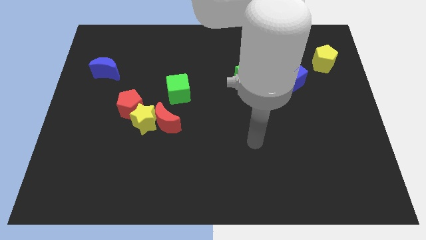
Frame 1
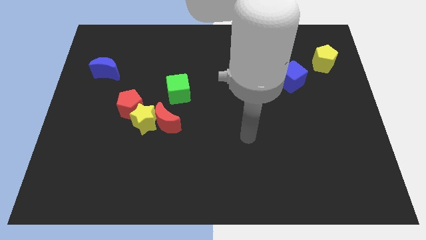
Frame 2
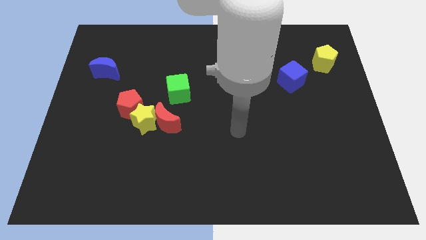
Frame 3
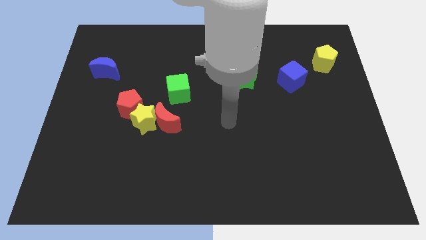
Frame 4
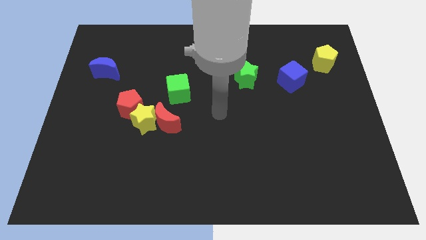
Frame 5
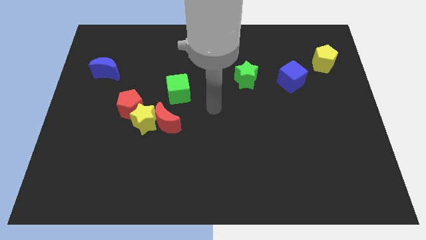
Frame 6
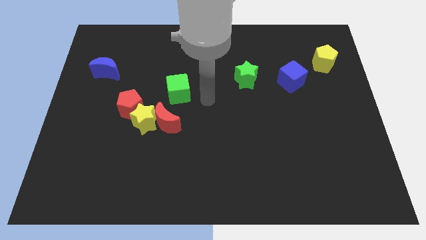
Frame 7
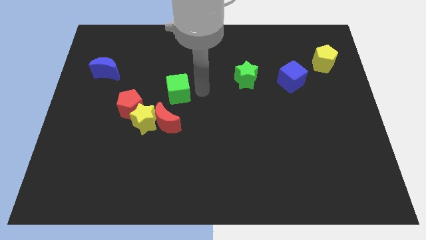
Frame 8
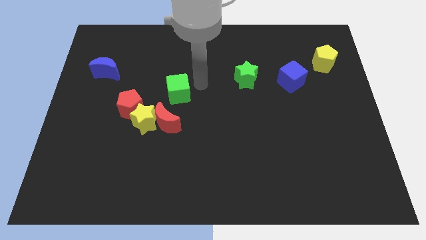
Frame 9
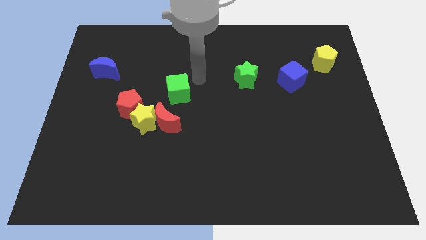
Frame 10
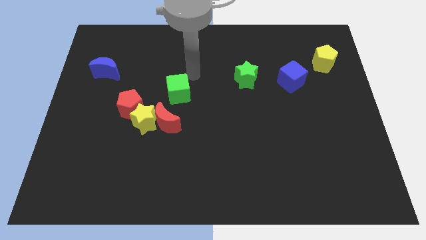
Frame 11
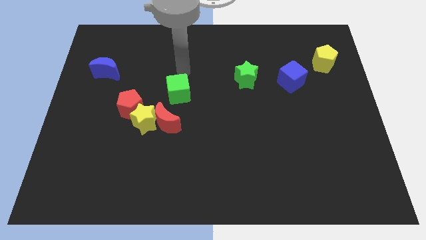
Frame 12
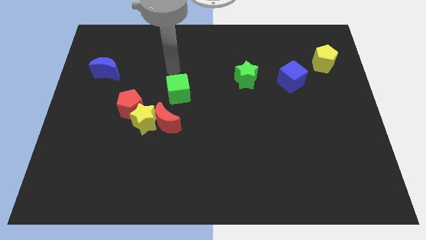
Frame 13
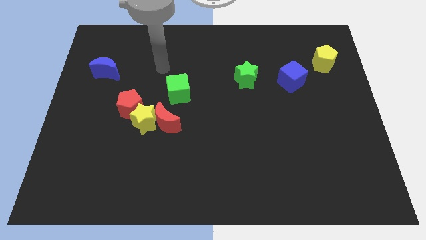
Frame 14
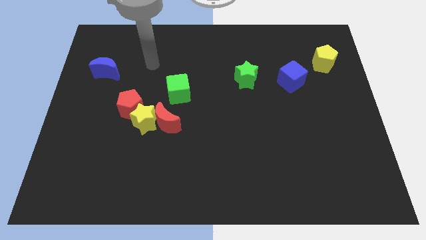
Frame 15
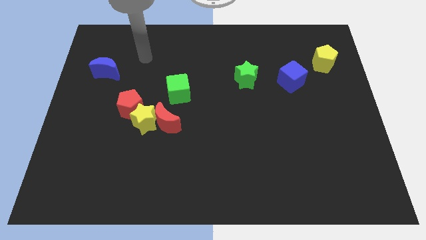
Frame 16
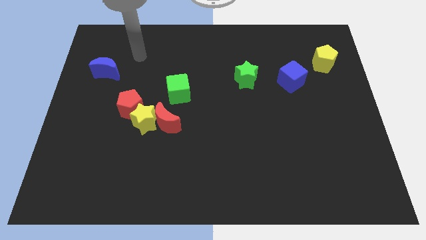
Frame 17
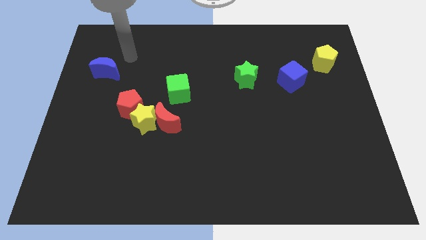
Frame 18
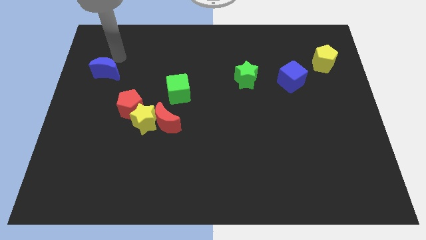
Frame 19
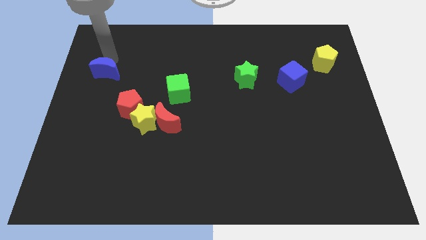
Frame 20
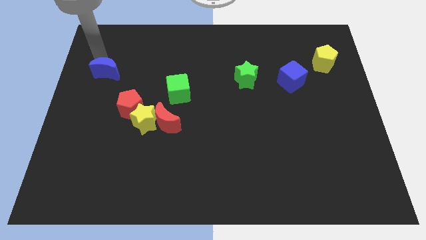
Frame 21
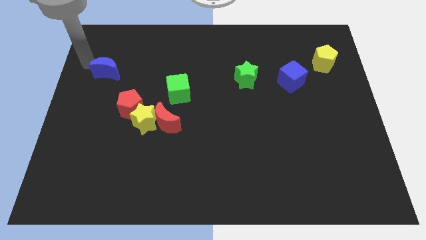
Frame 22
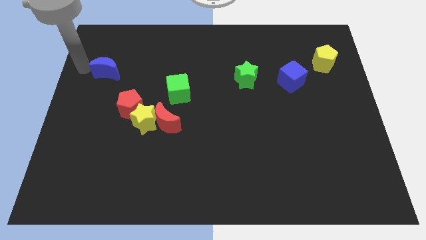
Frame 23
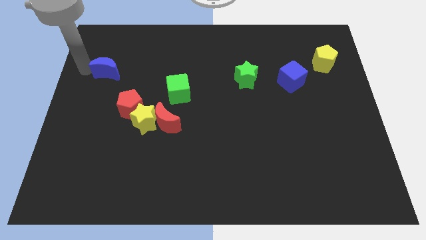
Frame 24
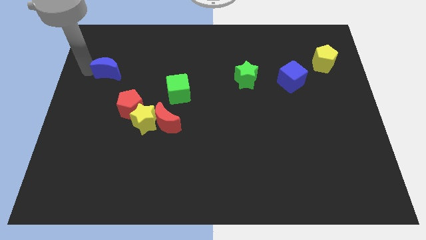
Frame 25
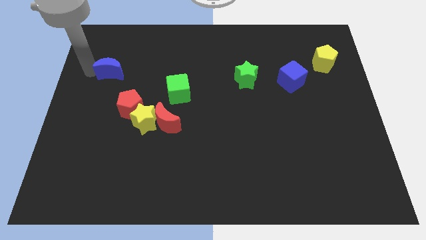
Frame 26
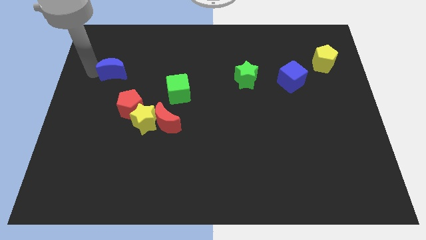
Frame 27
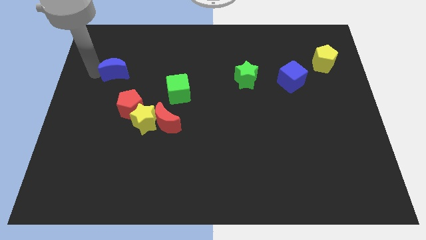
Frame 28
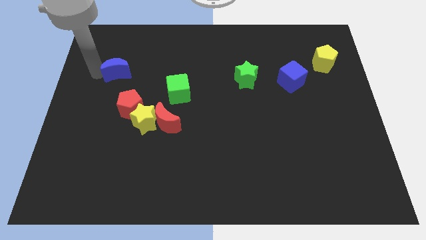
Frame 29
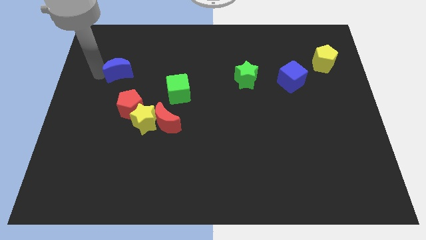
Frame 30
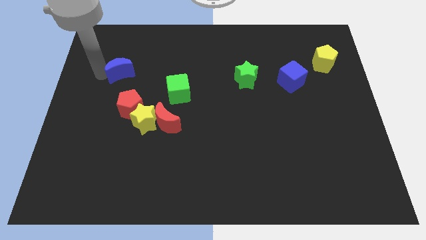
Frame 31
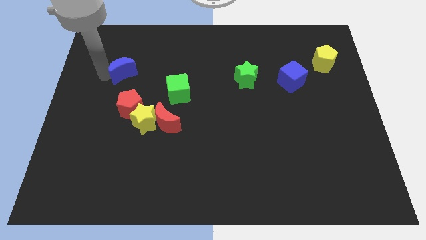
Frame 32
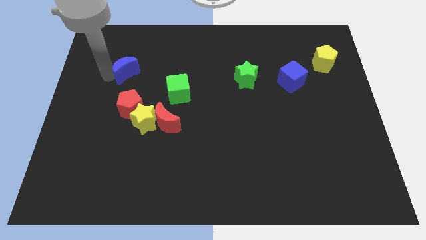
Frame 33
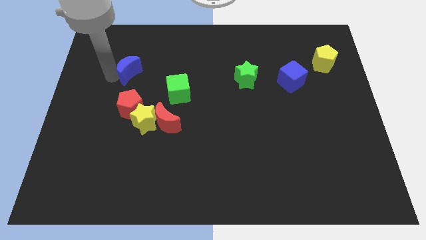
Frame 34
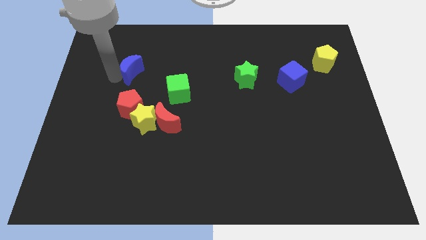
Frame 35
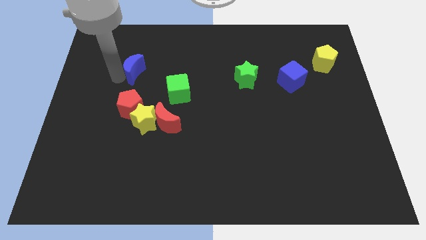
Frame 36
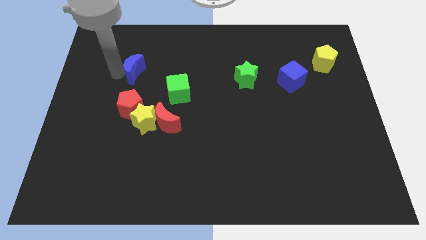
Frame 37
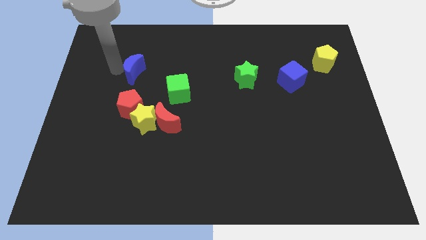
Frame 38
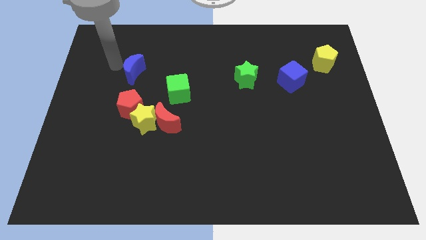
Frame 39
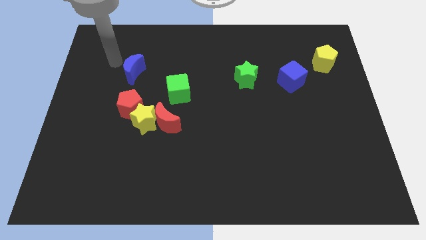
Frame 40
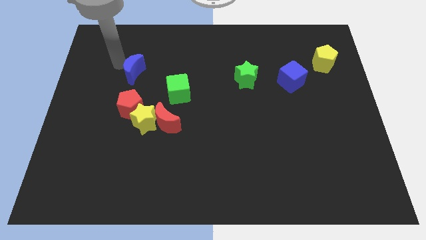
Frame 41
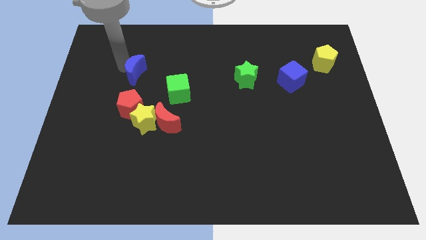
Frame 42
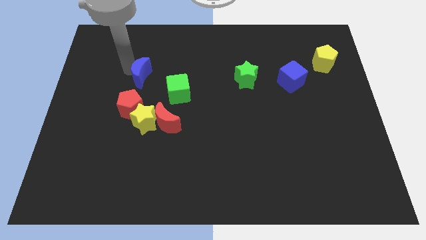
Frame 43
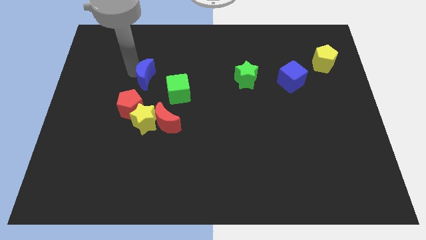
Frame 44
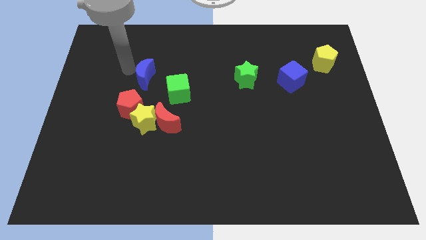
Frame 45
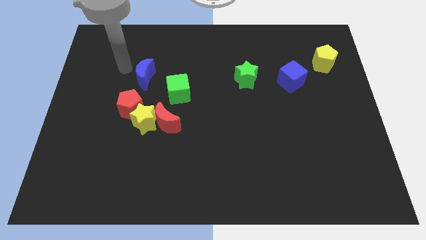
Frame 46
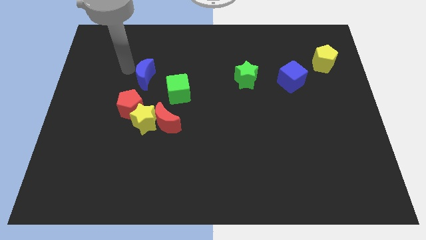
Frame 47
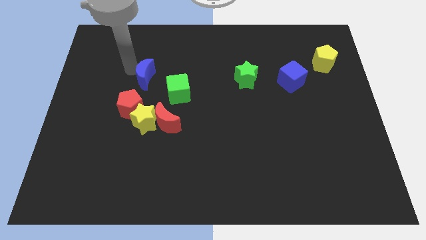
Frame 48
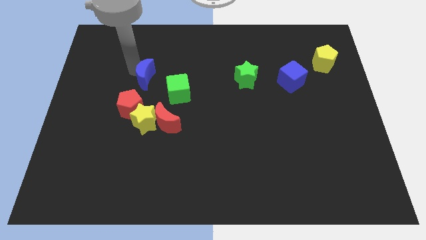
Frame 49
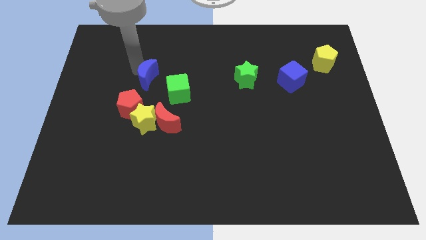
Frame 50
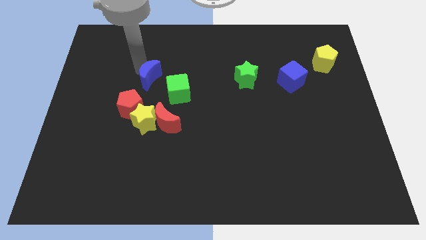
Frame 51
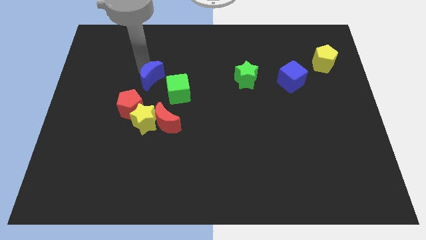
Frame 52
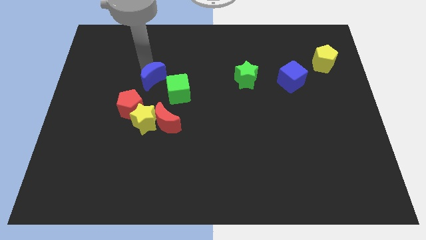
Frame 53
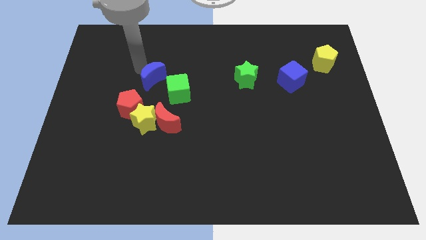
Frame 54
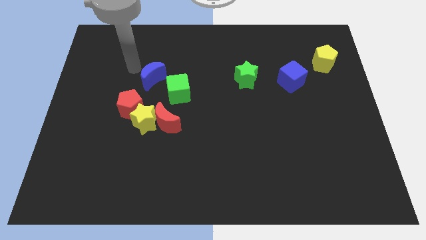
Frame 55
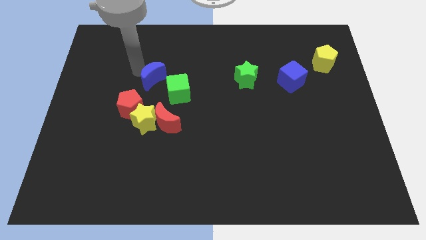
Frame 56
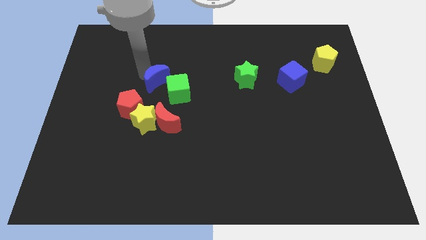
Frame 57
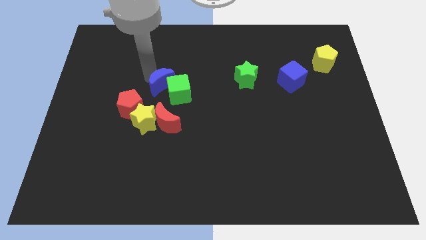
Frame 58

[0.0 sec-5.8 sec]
push the blue moon close to the green cube

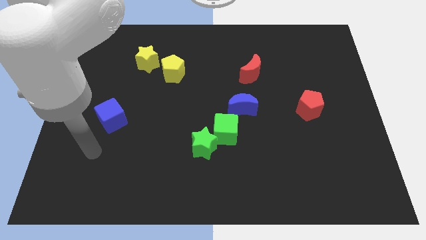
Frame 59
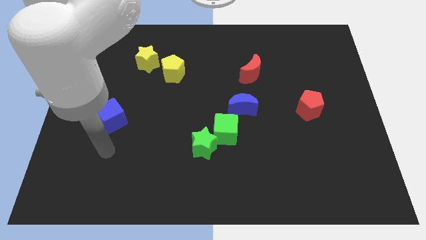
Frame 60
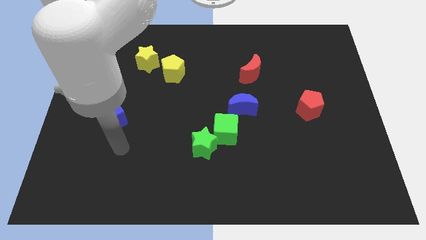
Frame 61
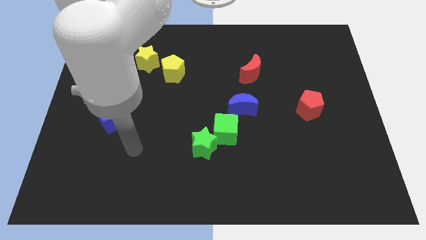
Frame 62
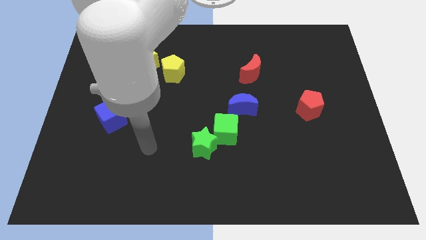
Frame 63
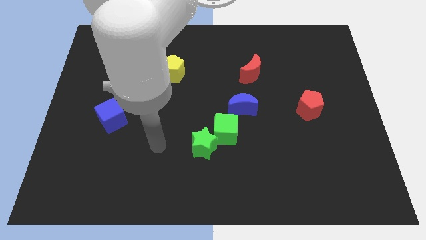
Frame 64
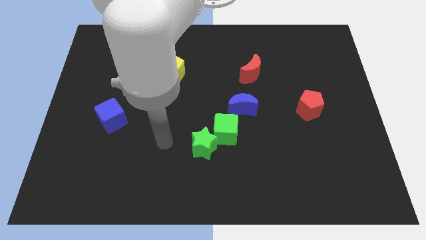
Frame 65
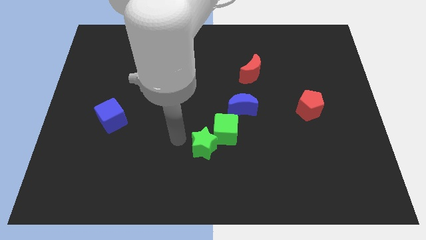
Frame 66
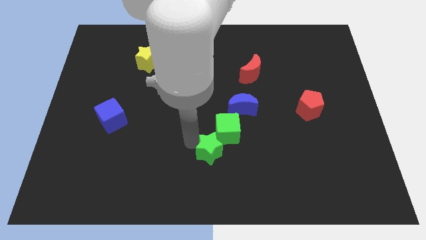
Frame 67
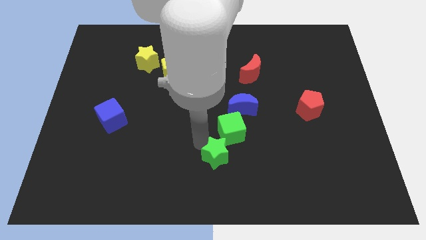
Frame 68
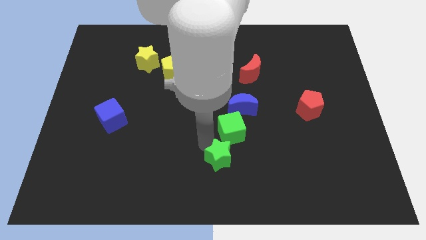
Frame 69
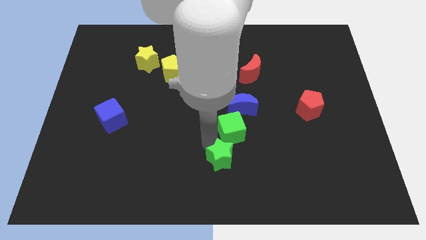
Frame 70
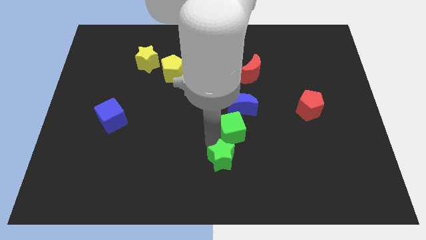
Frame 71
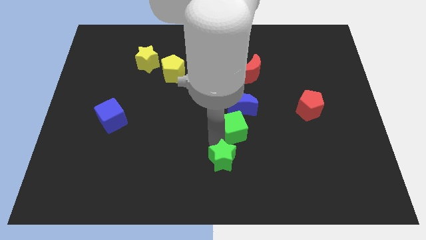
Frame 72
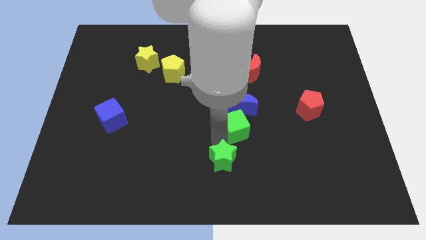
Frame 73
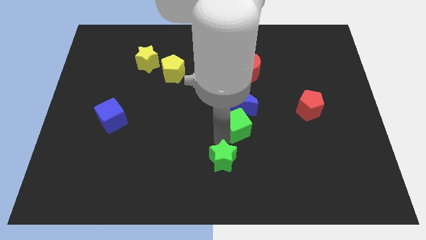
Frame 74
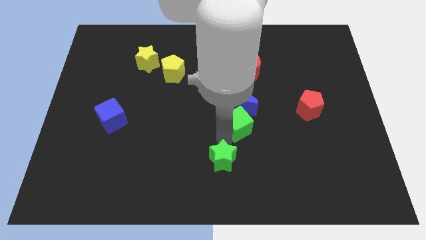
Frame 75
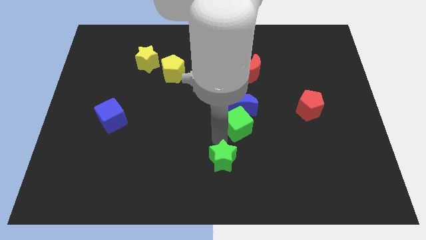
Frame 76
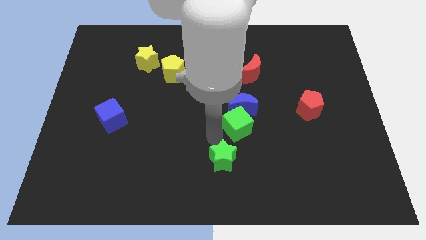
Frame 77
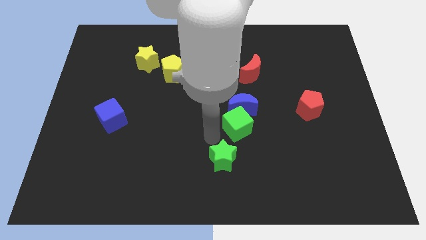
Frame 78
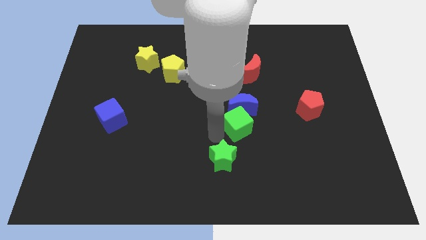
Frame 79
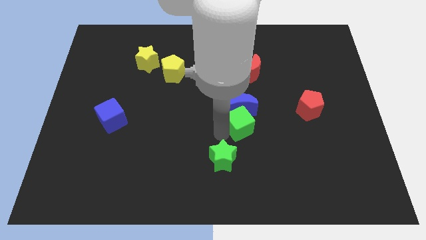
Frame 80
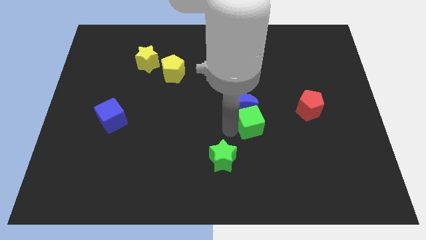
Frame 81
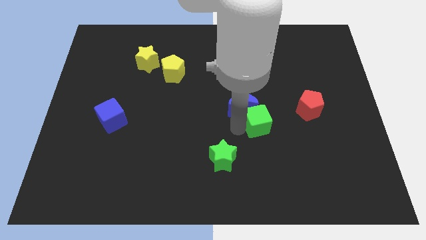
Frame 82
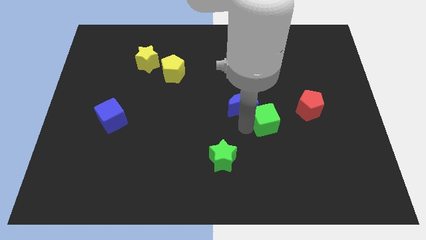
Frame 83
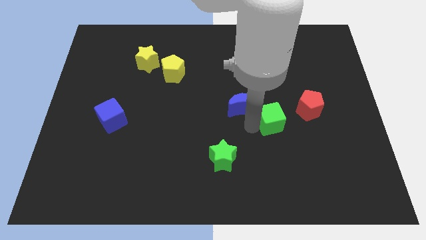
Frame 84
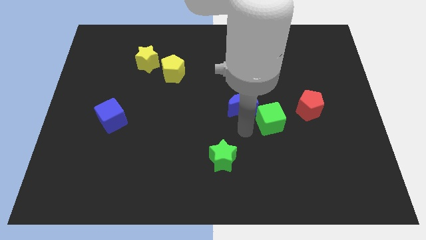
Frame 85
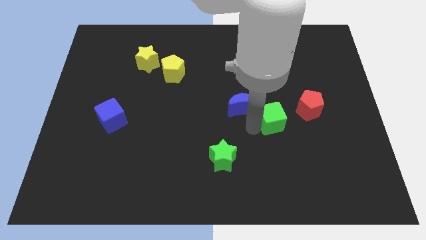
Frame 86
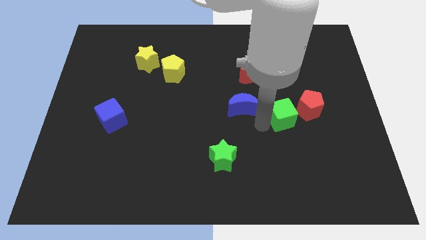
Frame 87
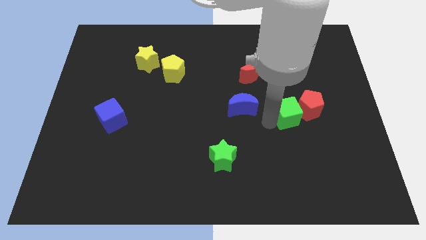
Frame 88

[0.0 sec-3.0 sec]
move the green cube to the red pentagon
